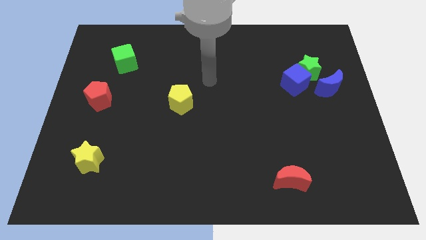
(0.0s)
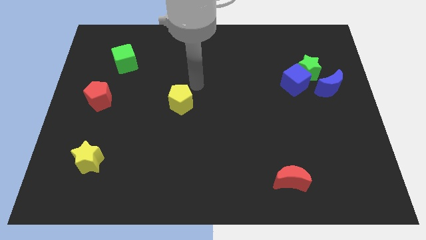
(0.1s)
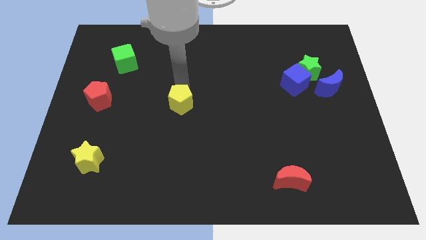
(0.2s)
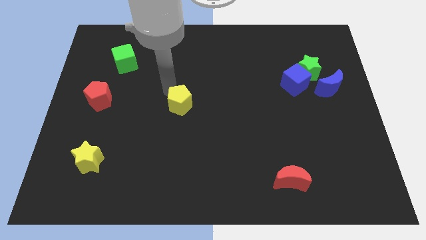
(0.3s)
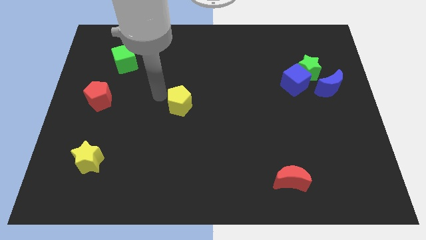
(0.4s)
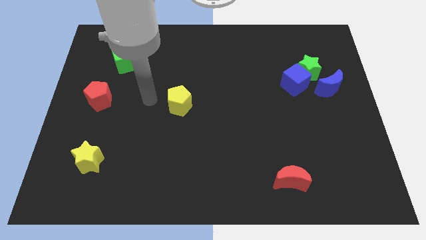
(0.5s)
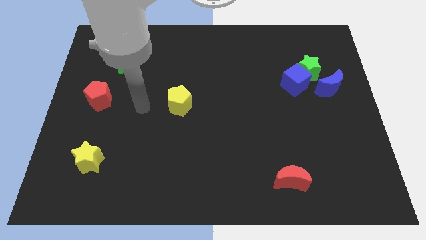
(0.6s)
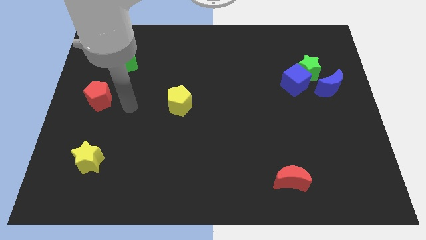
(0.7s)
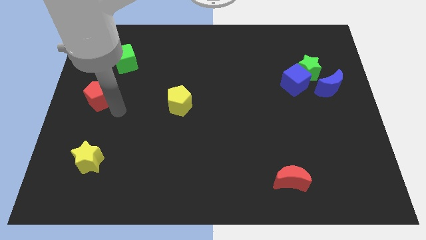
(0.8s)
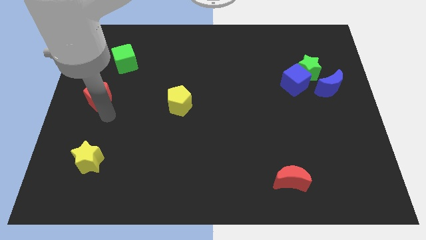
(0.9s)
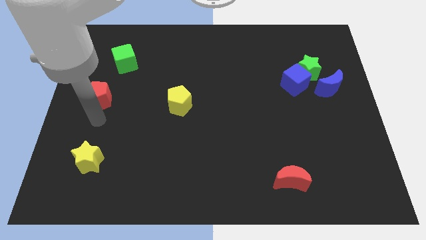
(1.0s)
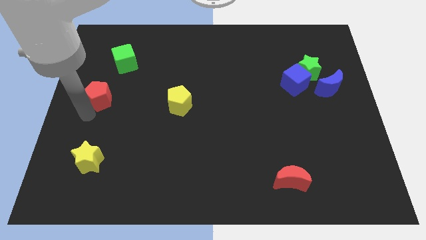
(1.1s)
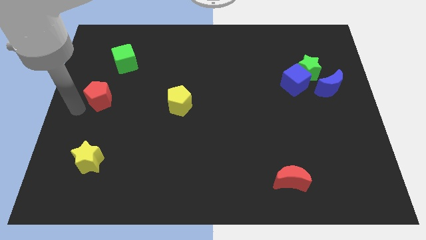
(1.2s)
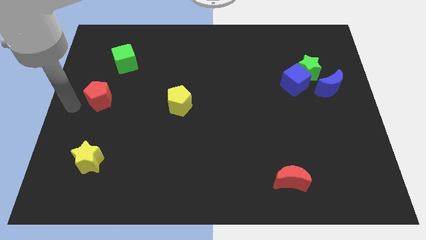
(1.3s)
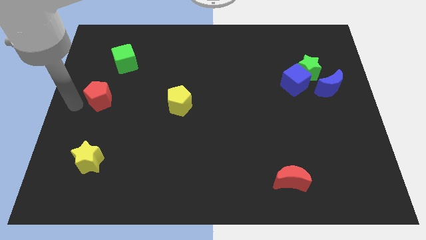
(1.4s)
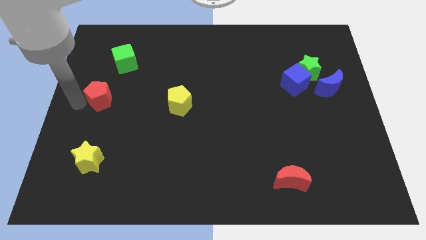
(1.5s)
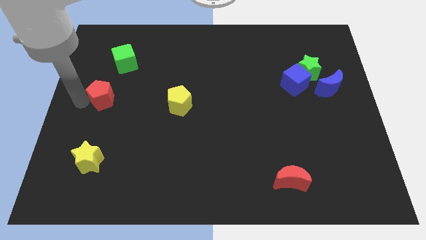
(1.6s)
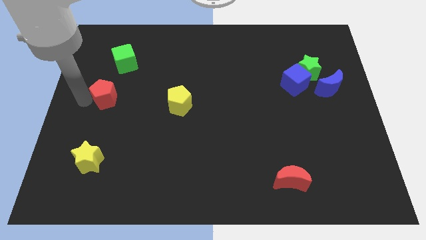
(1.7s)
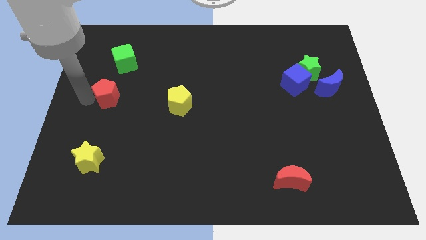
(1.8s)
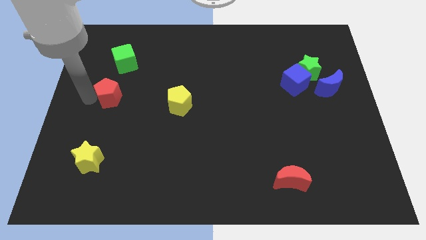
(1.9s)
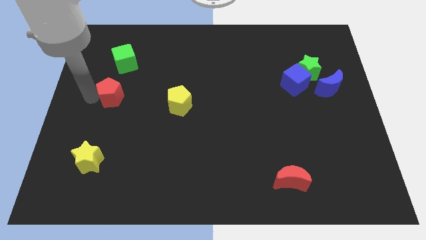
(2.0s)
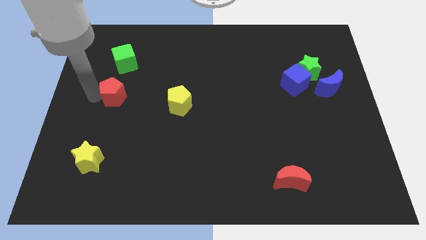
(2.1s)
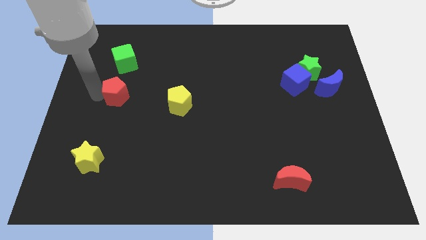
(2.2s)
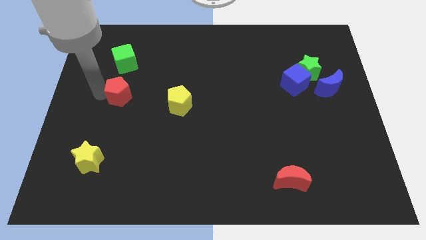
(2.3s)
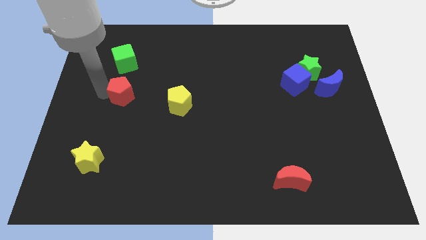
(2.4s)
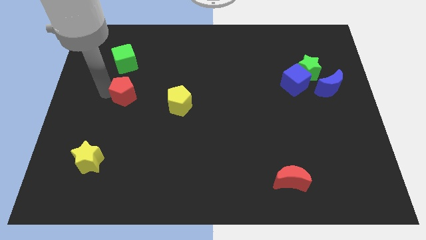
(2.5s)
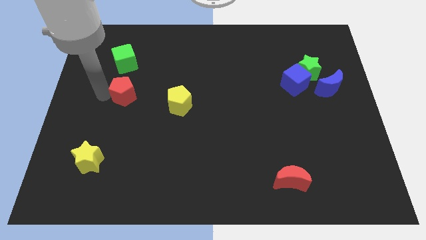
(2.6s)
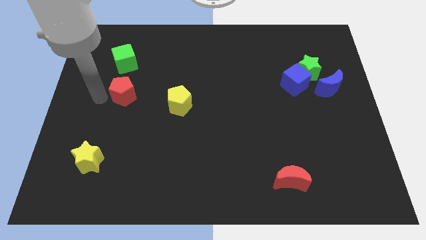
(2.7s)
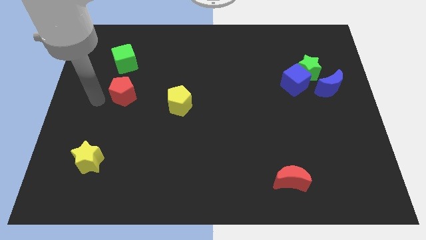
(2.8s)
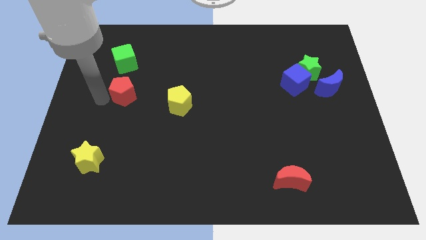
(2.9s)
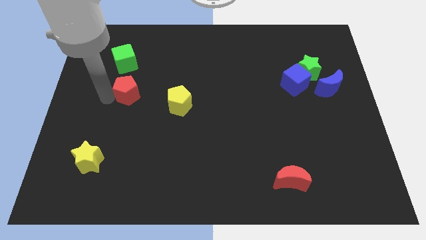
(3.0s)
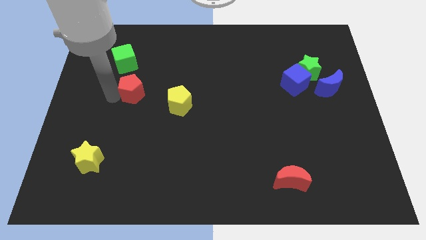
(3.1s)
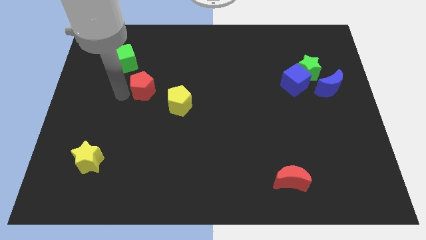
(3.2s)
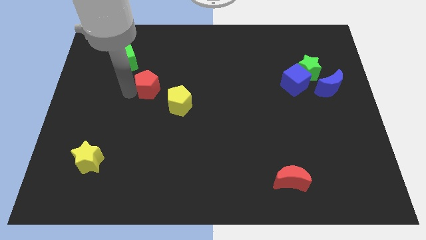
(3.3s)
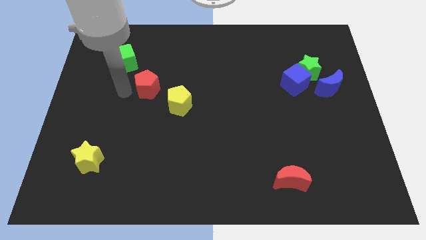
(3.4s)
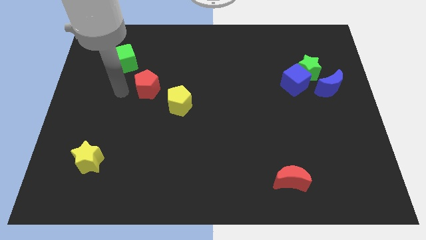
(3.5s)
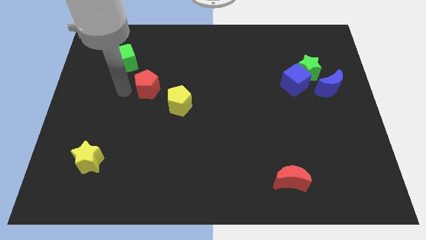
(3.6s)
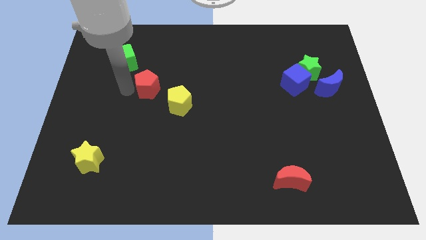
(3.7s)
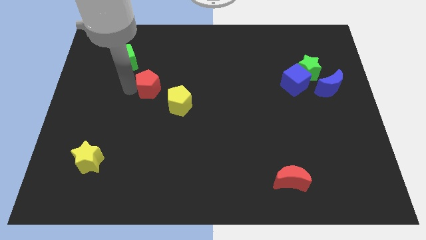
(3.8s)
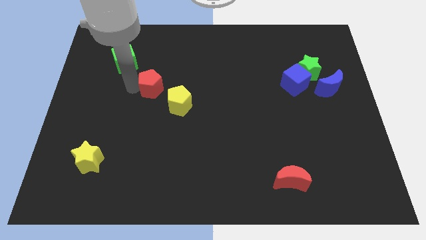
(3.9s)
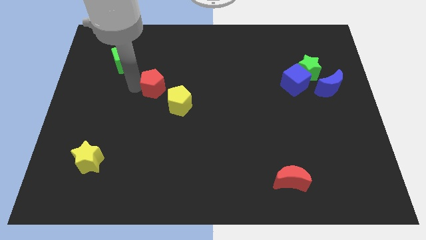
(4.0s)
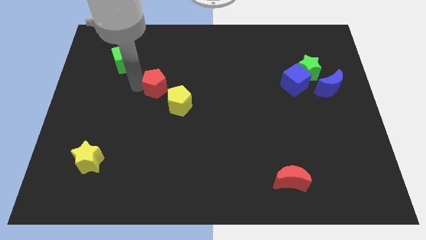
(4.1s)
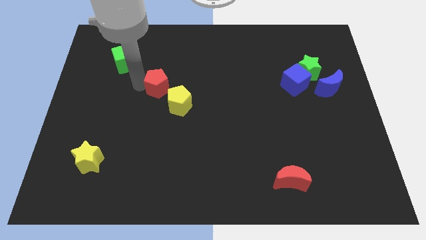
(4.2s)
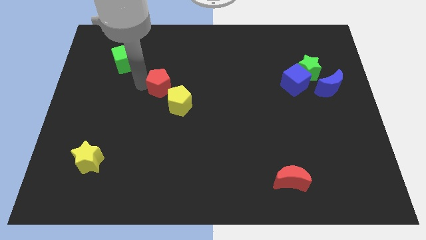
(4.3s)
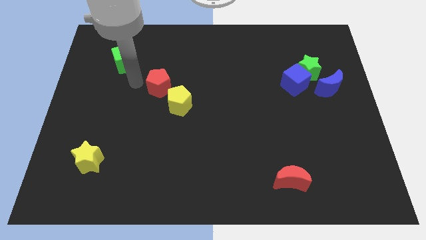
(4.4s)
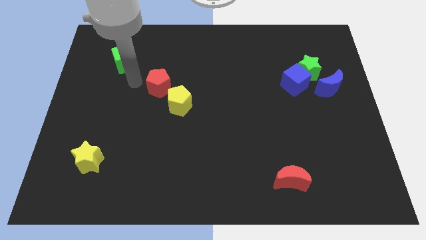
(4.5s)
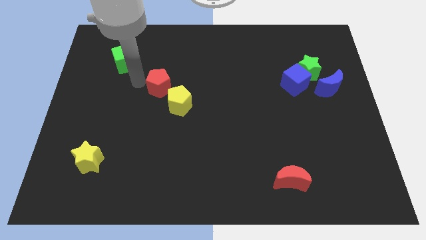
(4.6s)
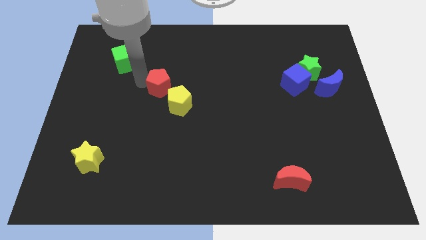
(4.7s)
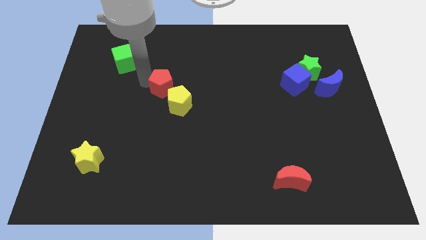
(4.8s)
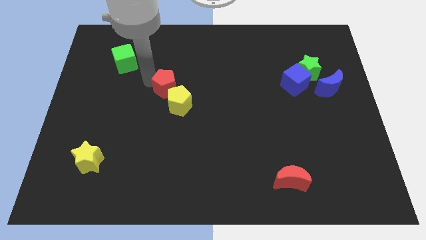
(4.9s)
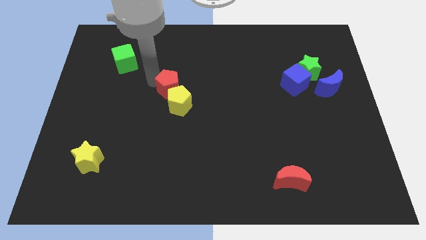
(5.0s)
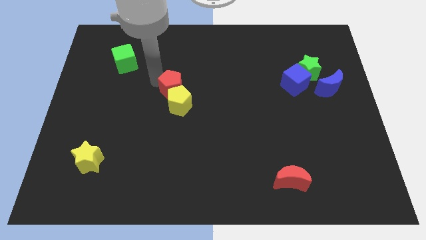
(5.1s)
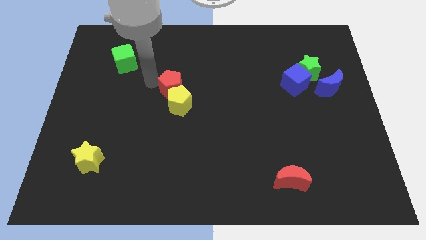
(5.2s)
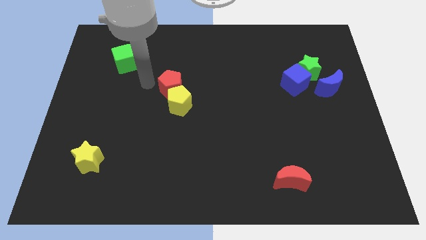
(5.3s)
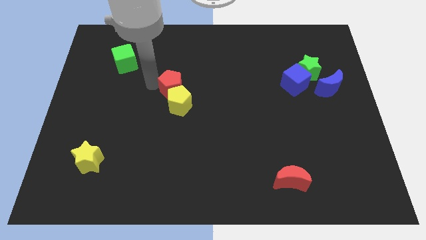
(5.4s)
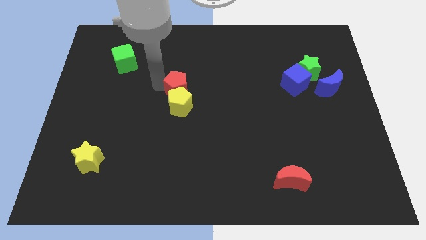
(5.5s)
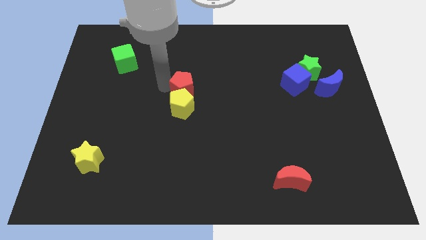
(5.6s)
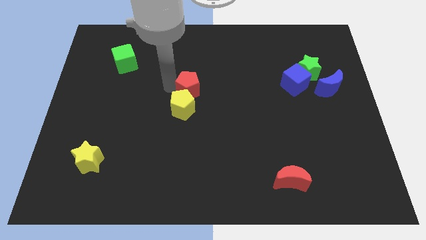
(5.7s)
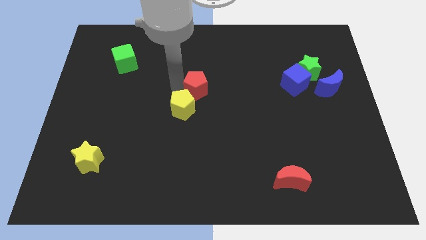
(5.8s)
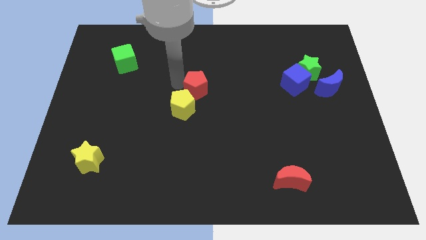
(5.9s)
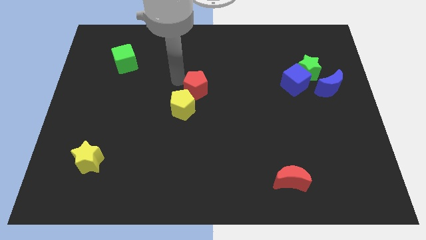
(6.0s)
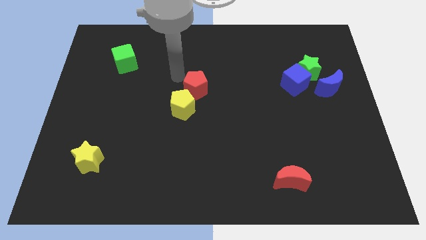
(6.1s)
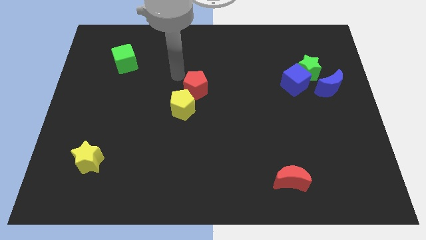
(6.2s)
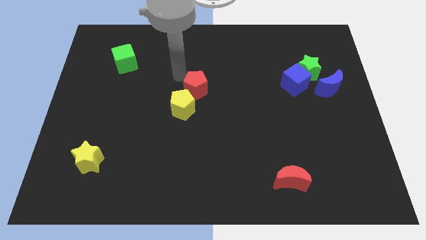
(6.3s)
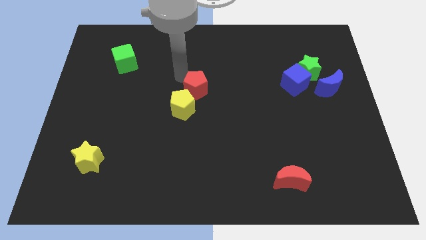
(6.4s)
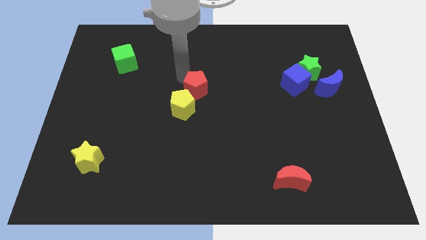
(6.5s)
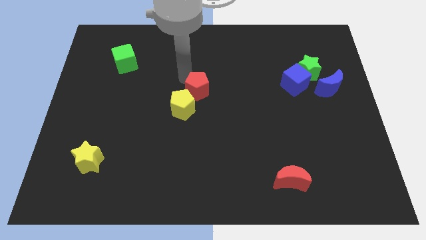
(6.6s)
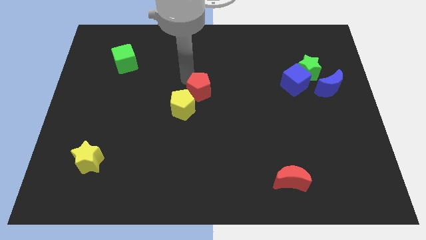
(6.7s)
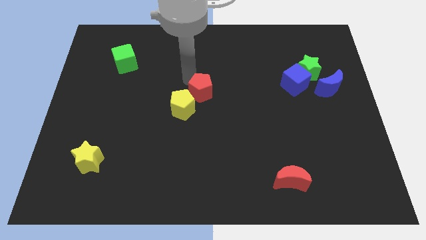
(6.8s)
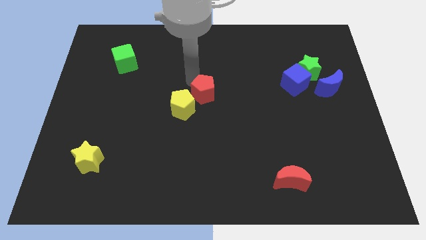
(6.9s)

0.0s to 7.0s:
put the red pentagon to the right of the yellow pentagon
